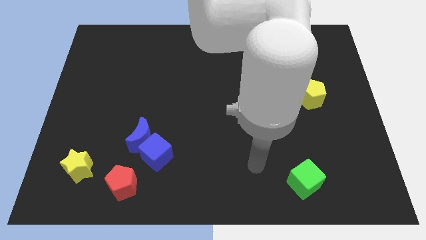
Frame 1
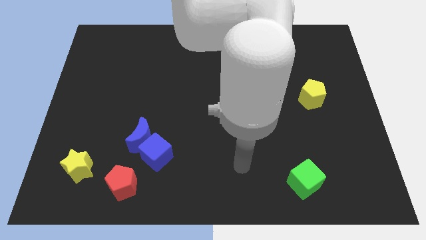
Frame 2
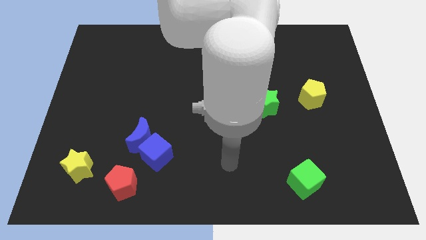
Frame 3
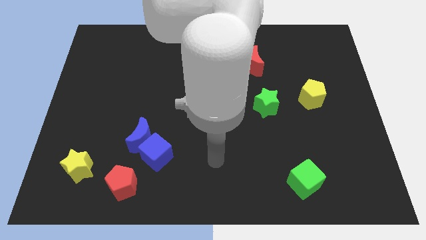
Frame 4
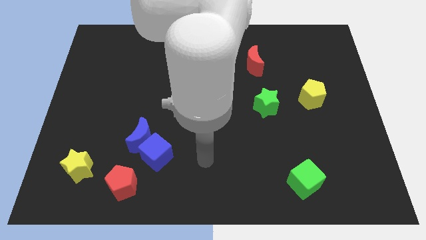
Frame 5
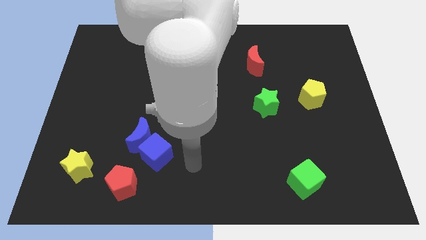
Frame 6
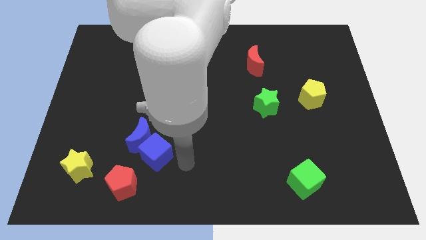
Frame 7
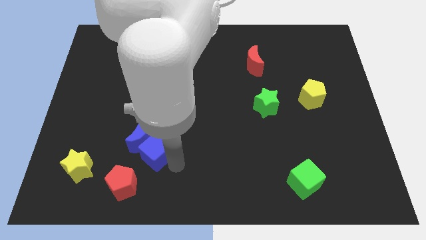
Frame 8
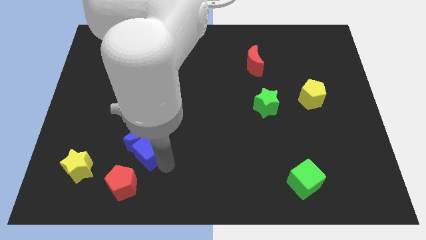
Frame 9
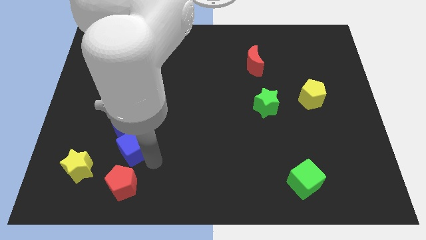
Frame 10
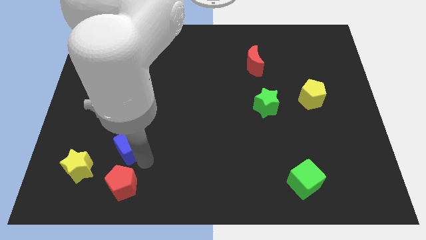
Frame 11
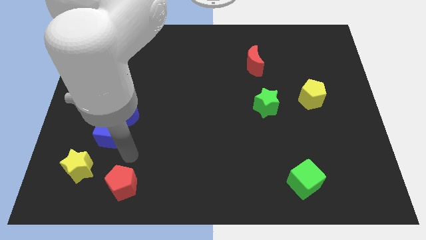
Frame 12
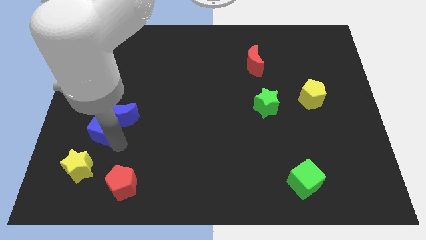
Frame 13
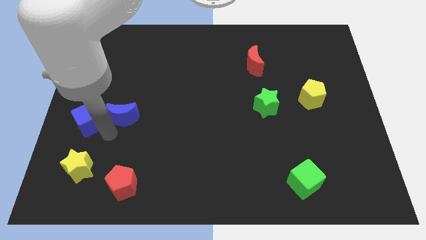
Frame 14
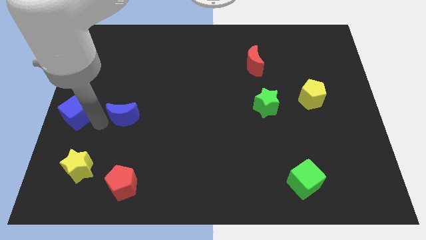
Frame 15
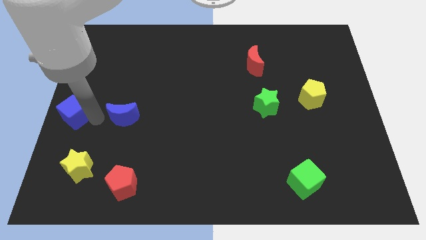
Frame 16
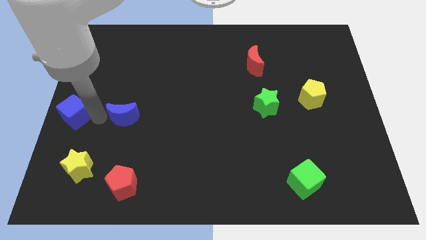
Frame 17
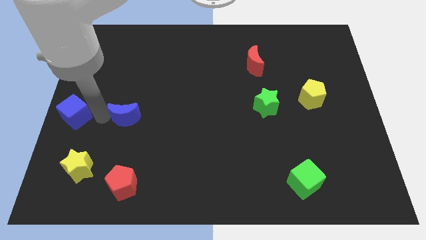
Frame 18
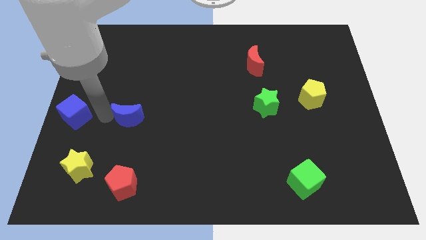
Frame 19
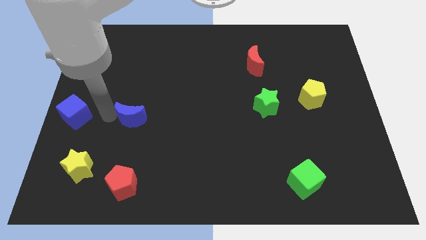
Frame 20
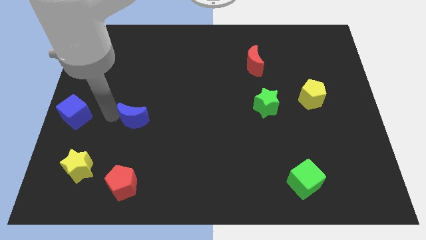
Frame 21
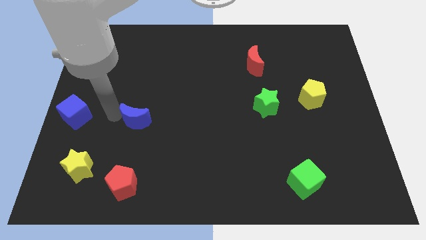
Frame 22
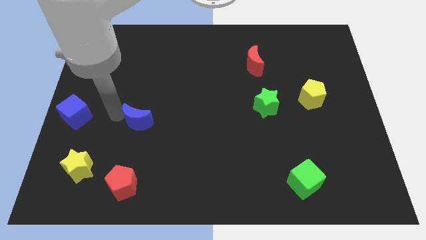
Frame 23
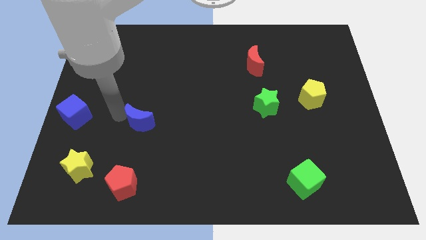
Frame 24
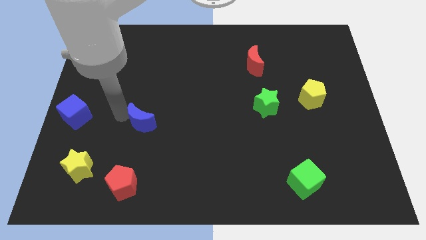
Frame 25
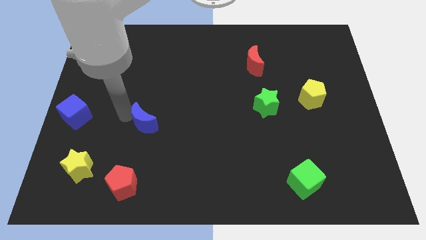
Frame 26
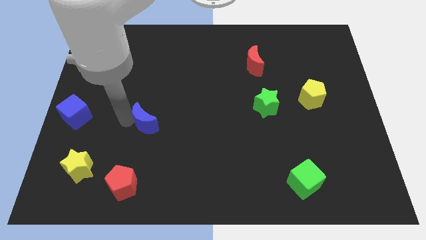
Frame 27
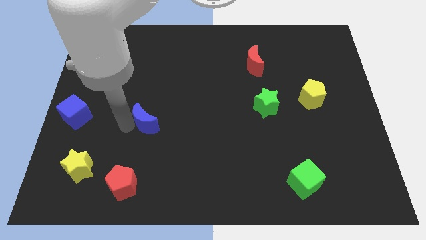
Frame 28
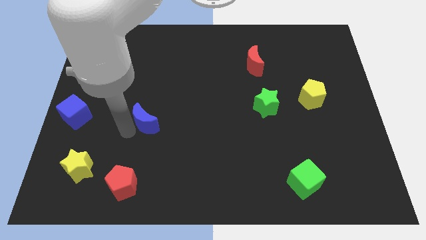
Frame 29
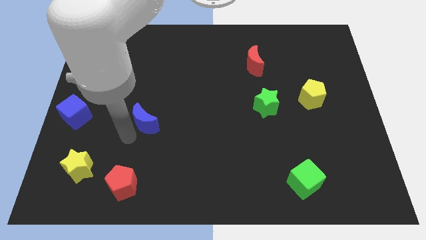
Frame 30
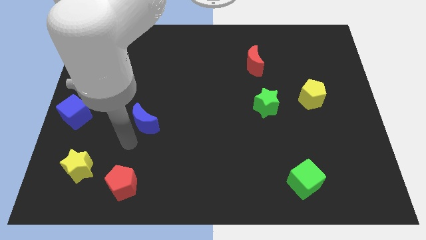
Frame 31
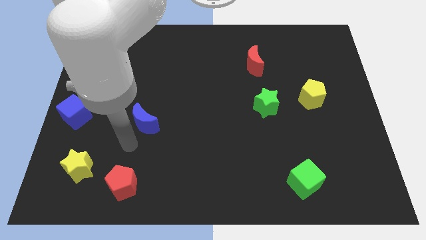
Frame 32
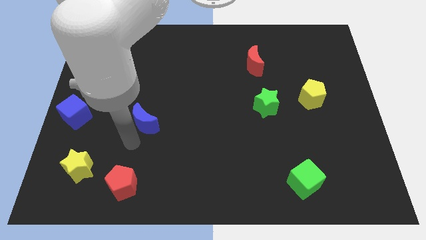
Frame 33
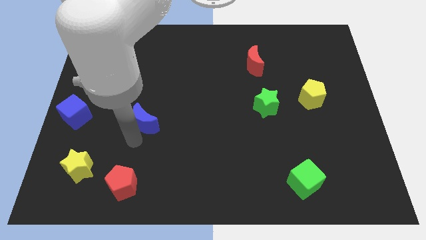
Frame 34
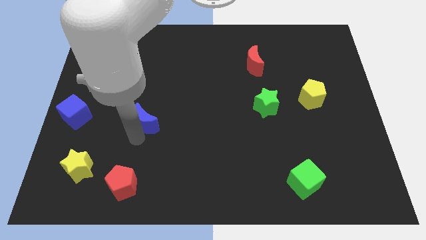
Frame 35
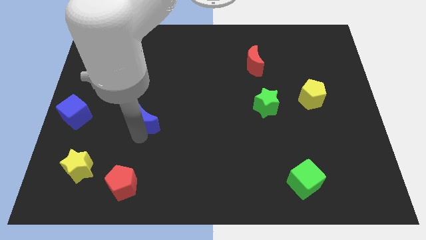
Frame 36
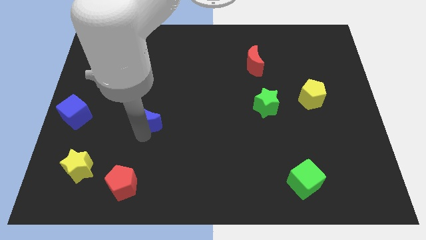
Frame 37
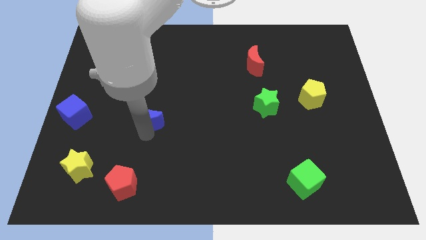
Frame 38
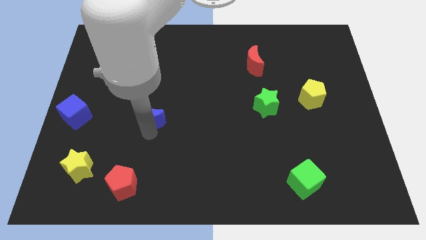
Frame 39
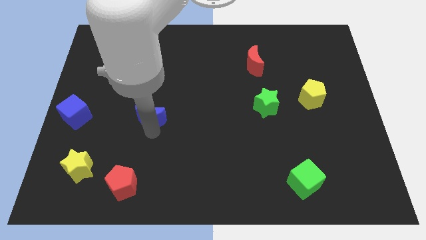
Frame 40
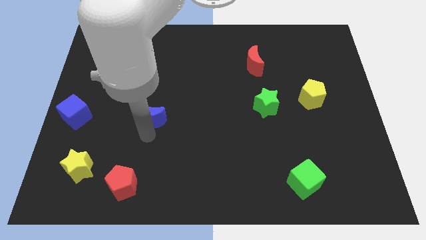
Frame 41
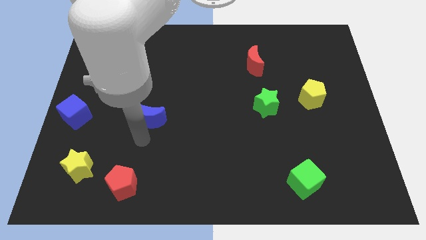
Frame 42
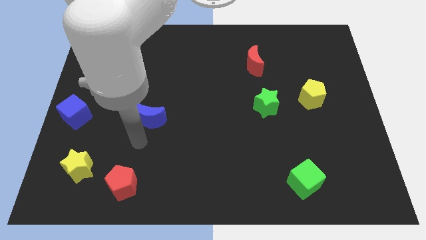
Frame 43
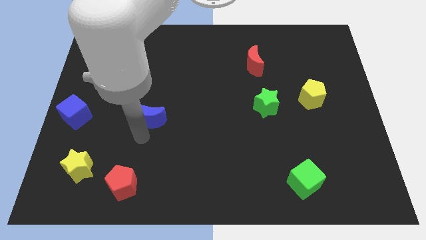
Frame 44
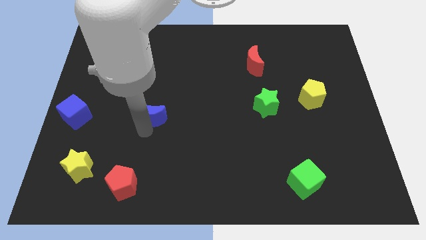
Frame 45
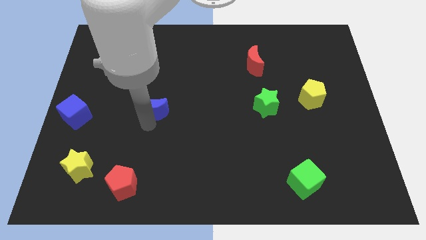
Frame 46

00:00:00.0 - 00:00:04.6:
slightly slide the blue moon up

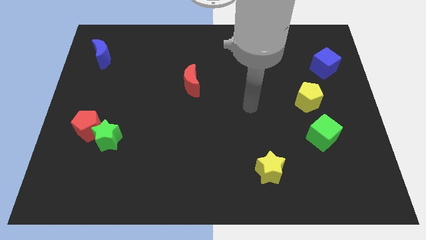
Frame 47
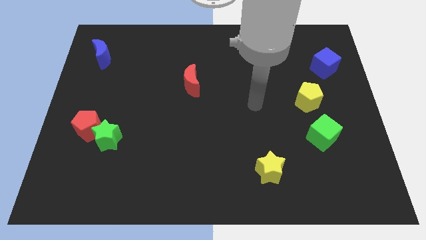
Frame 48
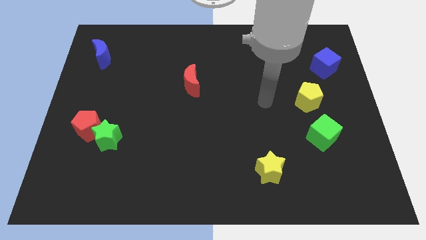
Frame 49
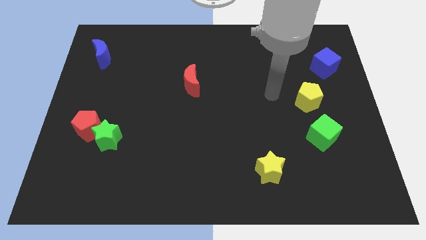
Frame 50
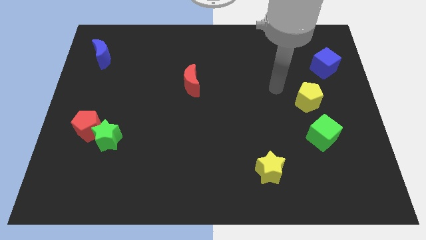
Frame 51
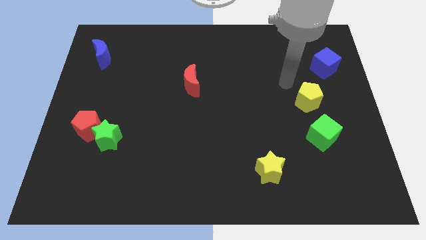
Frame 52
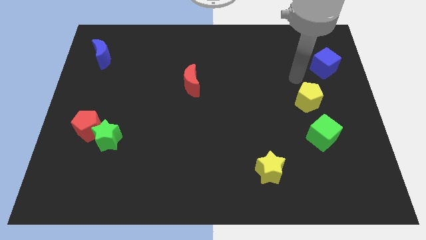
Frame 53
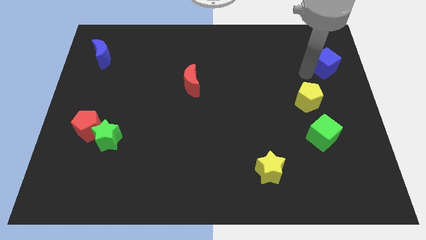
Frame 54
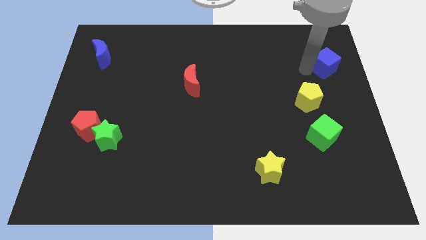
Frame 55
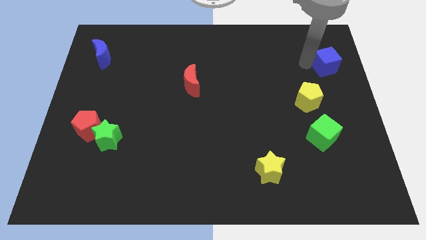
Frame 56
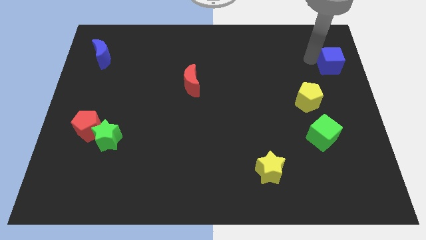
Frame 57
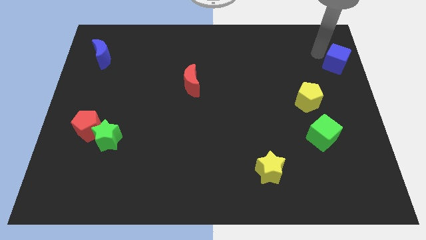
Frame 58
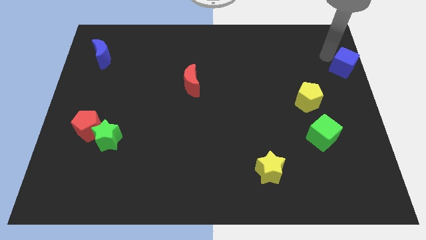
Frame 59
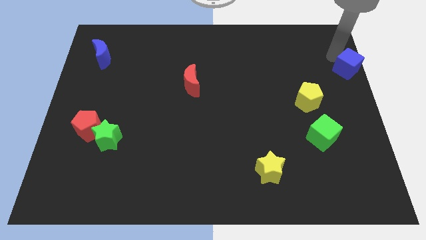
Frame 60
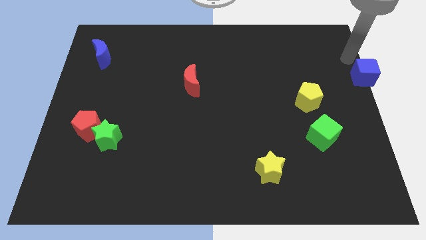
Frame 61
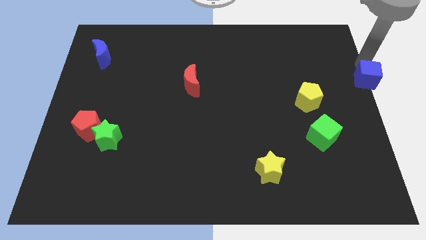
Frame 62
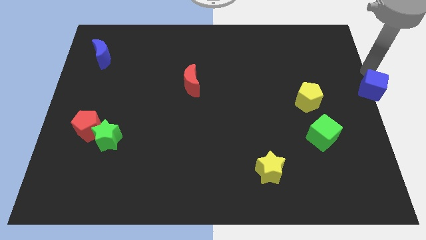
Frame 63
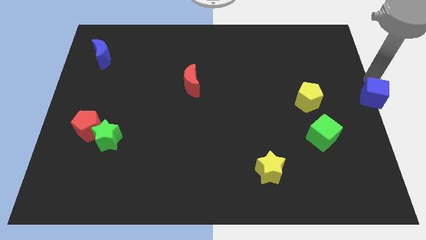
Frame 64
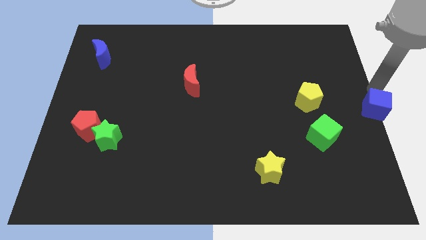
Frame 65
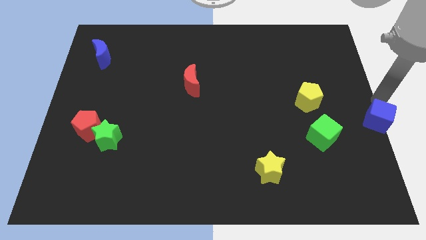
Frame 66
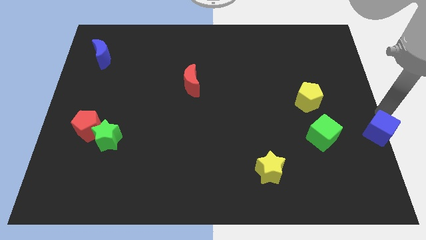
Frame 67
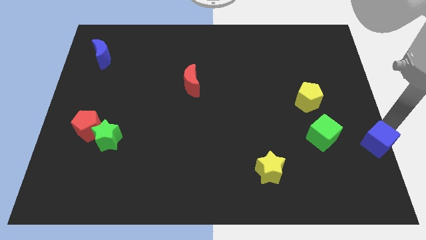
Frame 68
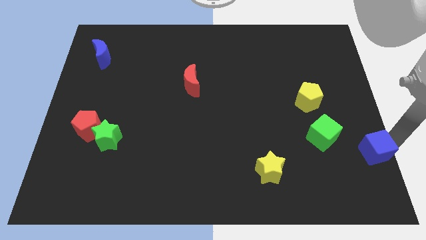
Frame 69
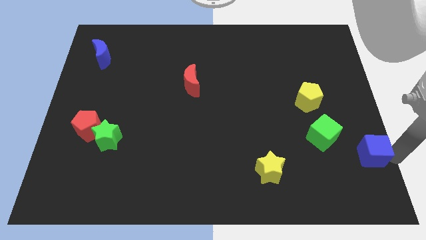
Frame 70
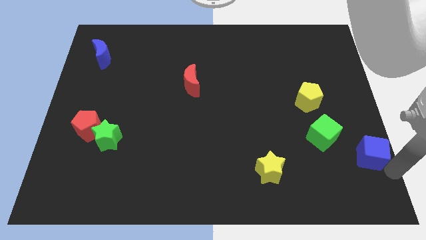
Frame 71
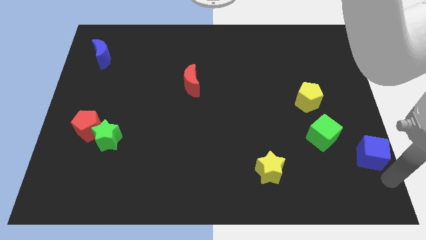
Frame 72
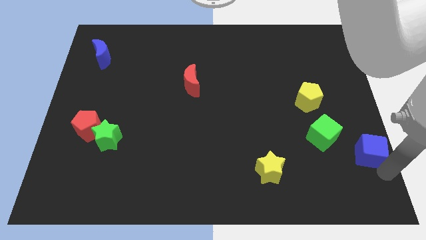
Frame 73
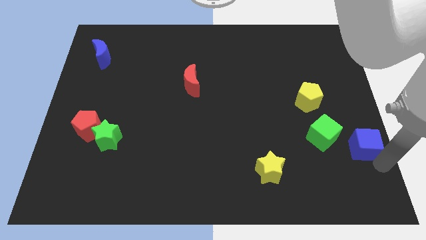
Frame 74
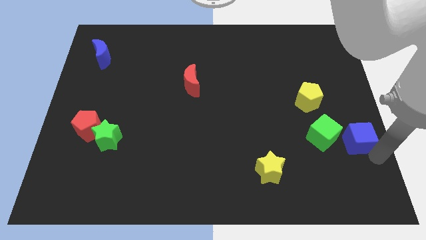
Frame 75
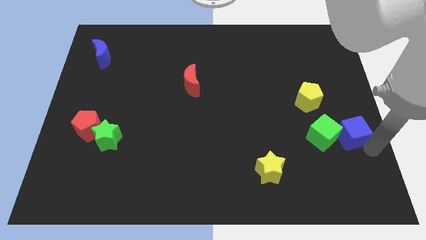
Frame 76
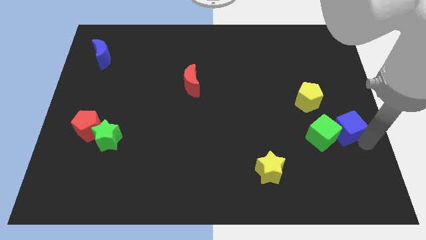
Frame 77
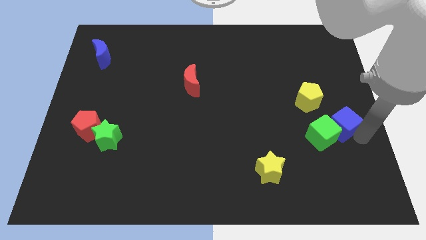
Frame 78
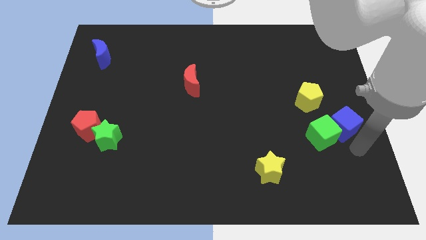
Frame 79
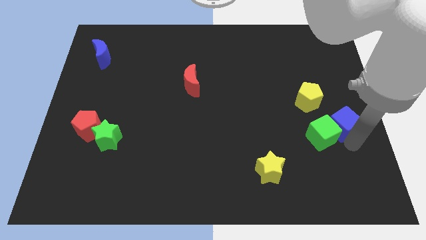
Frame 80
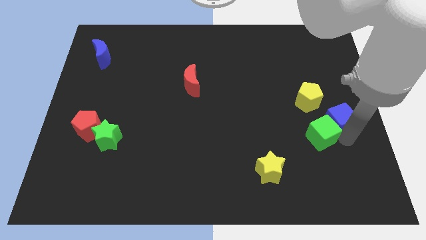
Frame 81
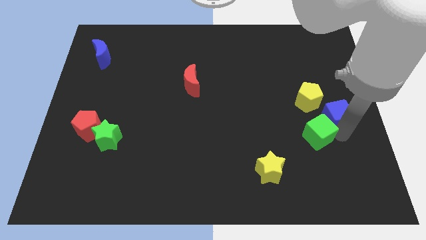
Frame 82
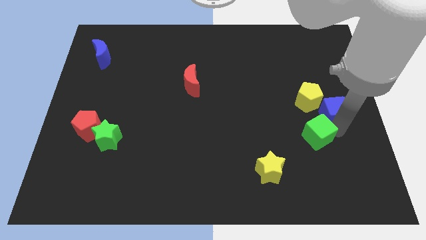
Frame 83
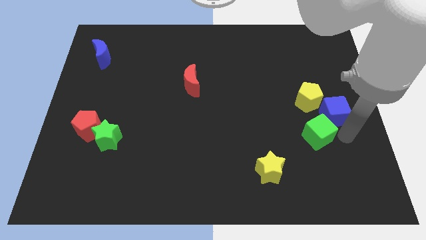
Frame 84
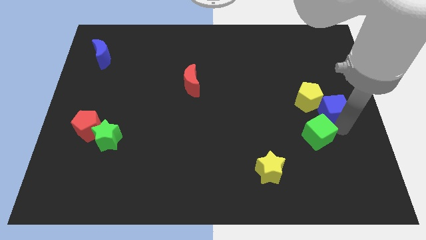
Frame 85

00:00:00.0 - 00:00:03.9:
slide the blue cube down and left somewhat

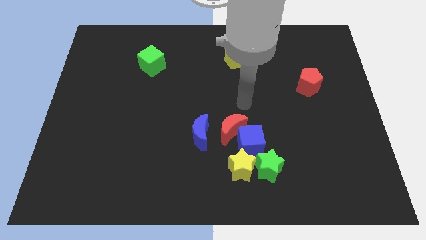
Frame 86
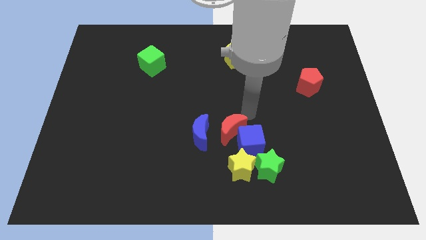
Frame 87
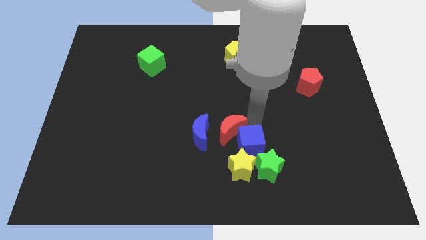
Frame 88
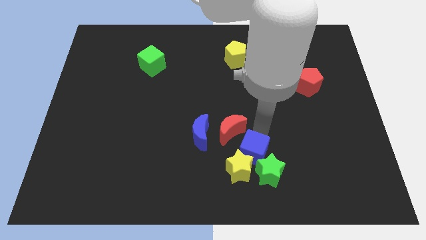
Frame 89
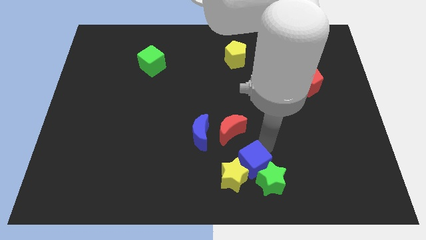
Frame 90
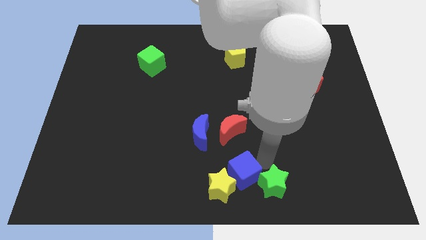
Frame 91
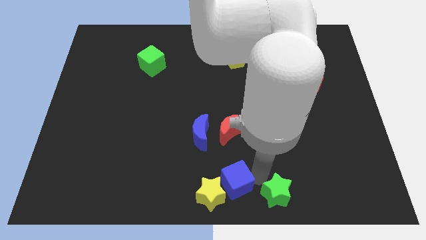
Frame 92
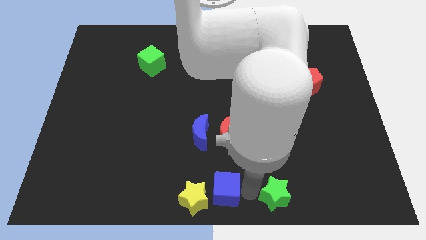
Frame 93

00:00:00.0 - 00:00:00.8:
slightly slide the yellow star left
